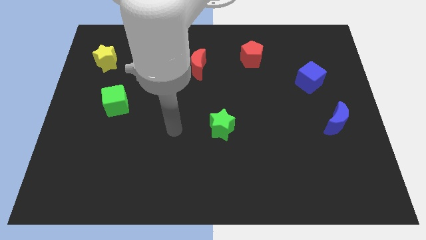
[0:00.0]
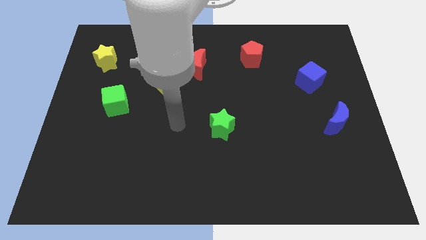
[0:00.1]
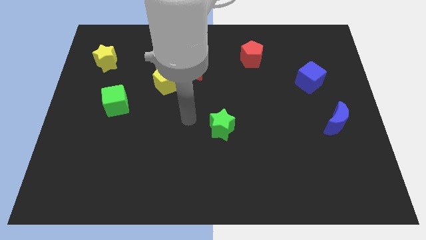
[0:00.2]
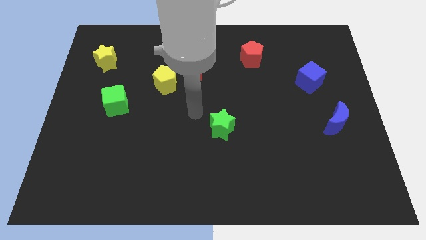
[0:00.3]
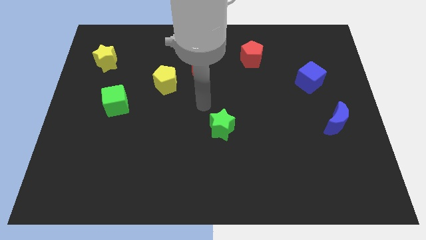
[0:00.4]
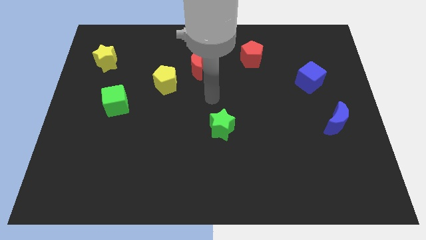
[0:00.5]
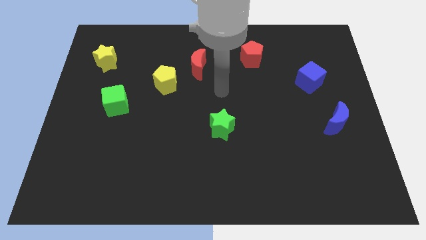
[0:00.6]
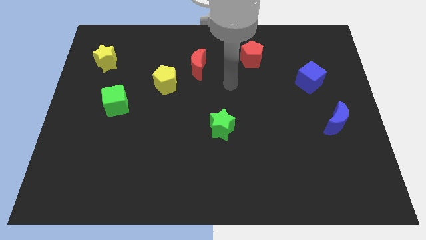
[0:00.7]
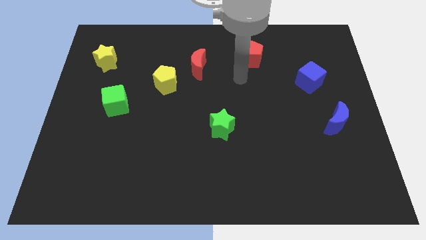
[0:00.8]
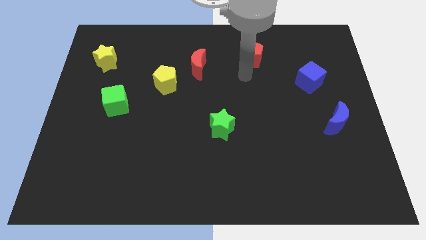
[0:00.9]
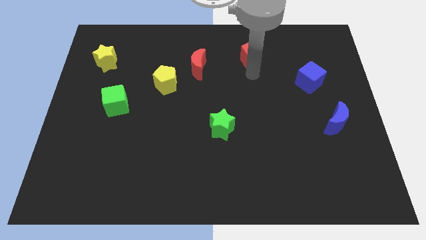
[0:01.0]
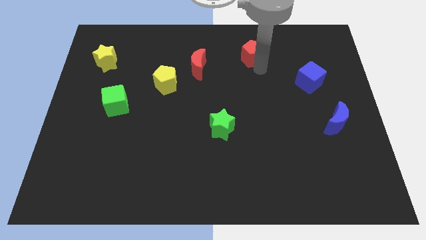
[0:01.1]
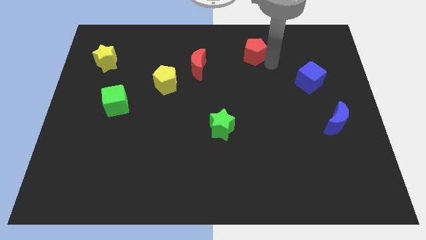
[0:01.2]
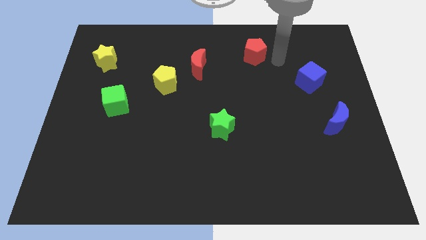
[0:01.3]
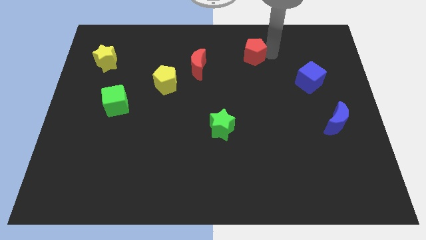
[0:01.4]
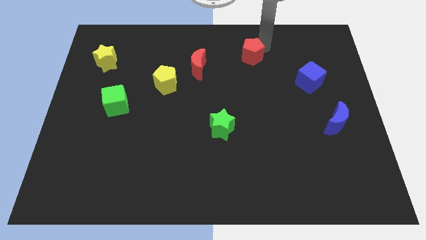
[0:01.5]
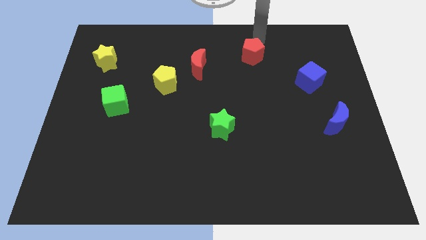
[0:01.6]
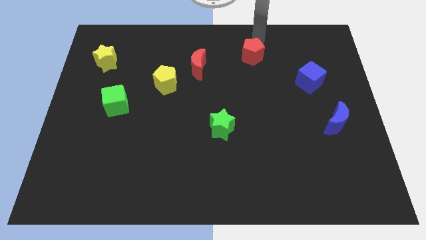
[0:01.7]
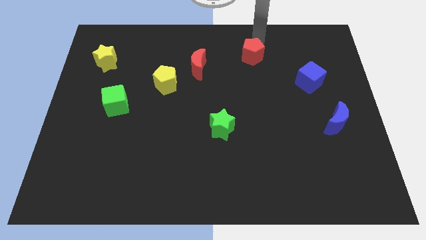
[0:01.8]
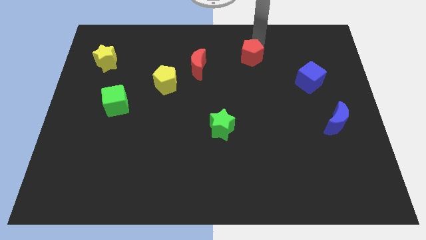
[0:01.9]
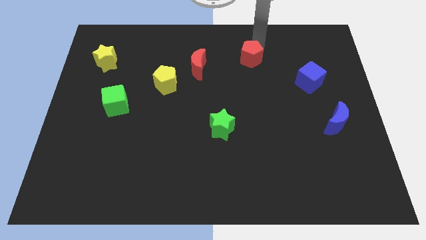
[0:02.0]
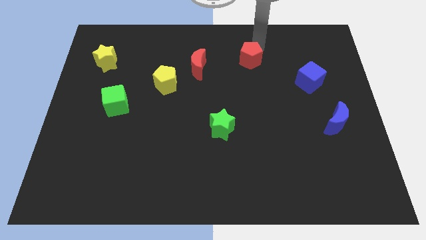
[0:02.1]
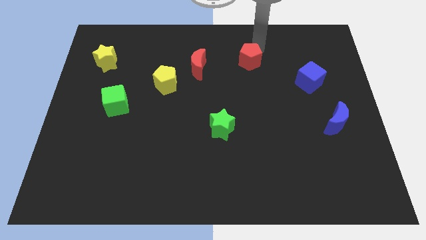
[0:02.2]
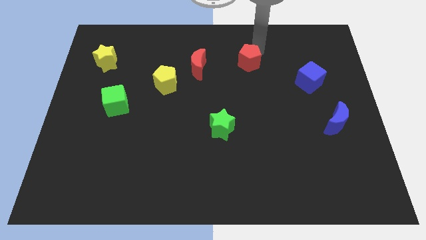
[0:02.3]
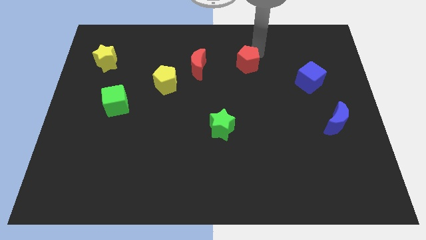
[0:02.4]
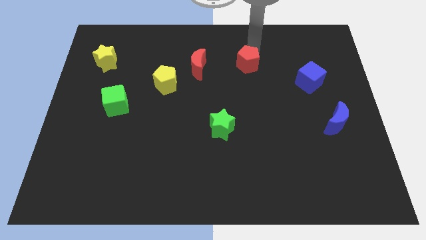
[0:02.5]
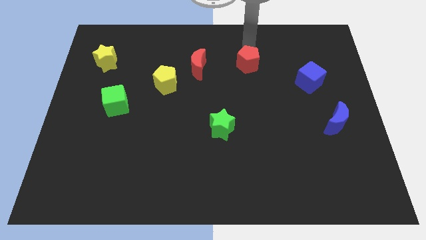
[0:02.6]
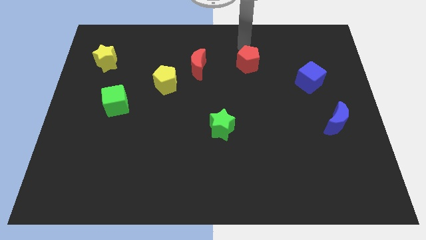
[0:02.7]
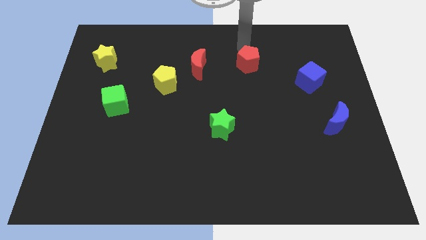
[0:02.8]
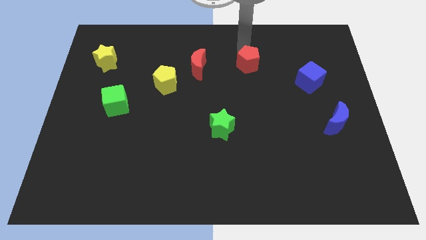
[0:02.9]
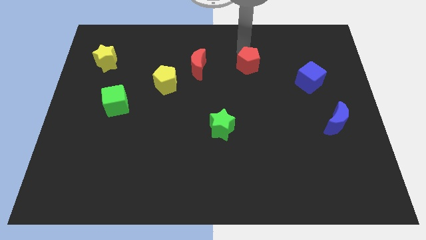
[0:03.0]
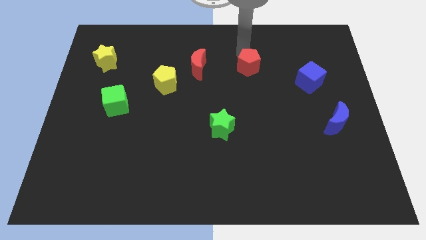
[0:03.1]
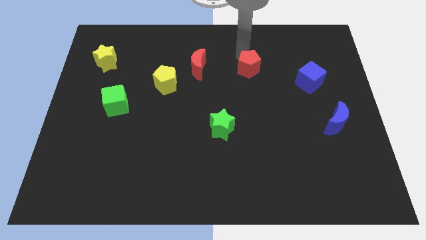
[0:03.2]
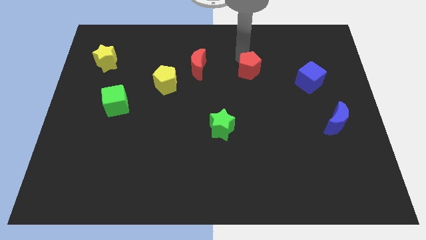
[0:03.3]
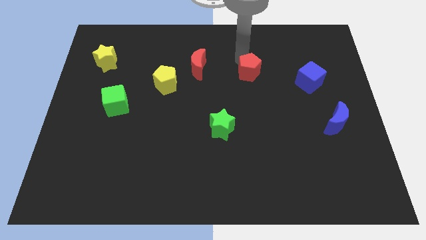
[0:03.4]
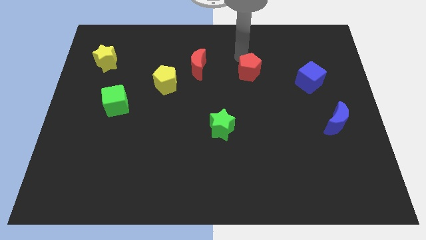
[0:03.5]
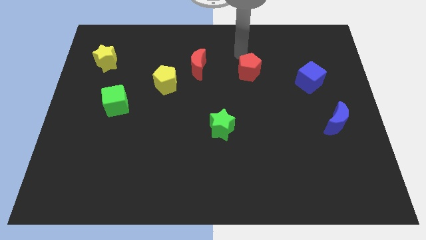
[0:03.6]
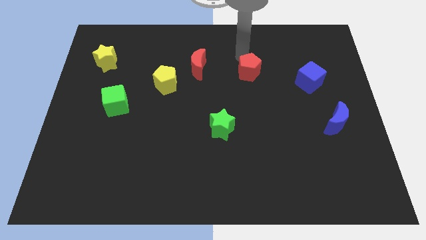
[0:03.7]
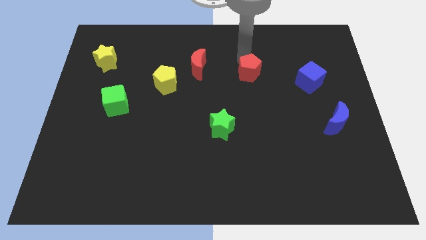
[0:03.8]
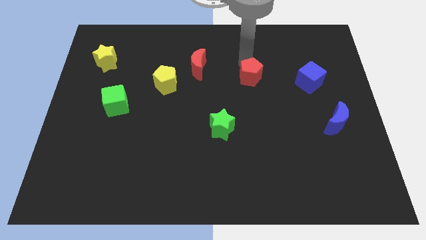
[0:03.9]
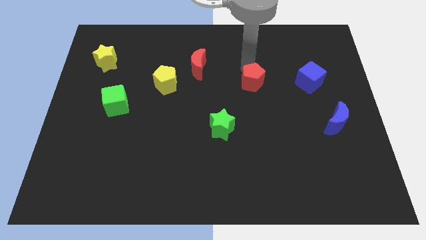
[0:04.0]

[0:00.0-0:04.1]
move the red pentagon down a little bit

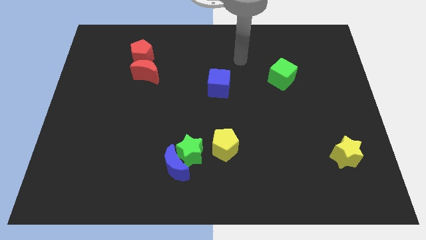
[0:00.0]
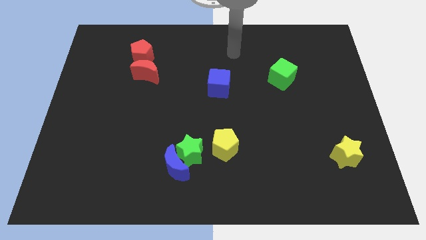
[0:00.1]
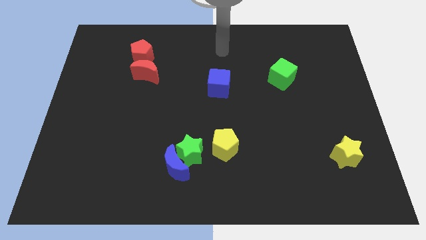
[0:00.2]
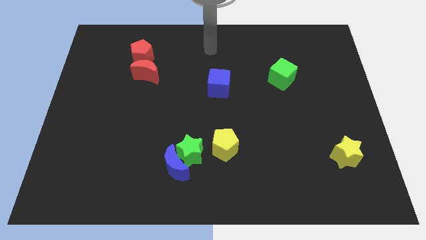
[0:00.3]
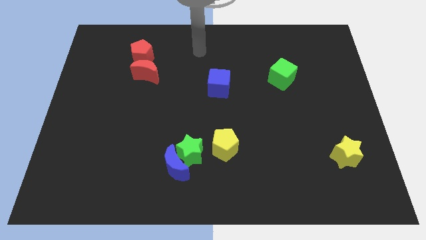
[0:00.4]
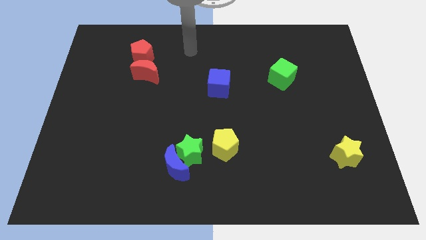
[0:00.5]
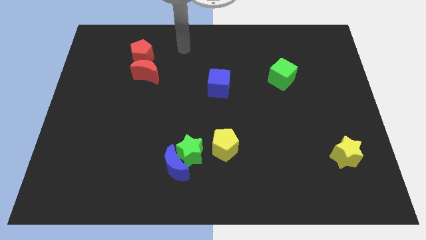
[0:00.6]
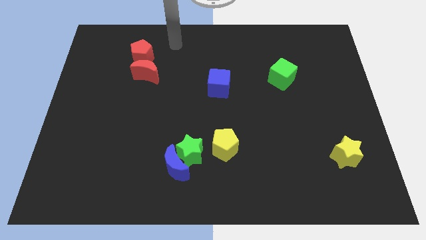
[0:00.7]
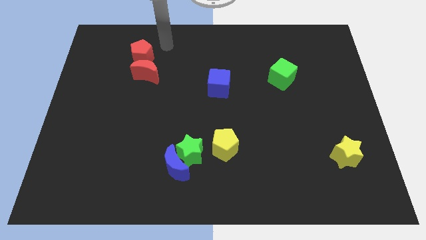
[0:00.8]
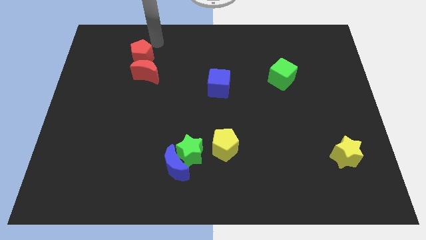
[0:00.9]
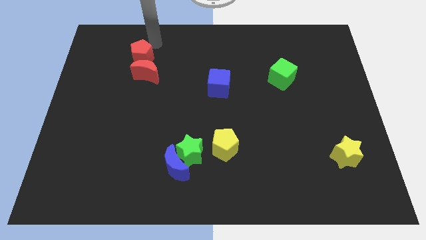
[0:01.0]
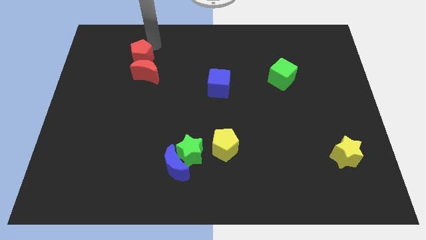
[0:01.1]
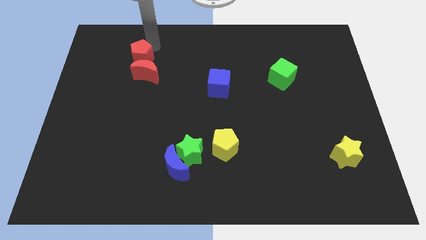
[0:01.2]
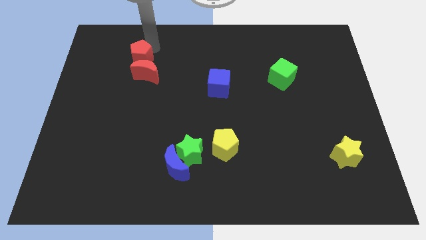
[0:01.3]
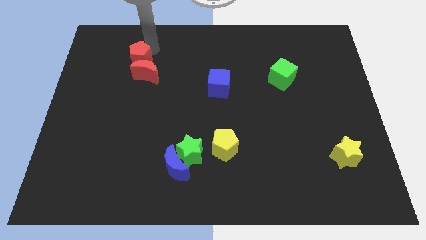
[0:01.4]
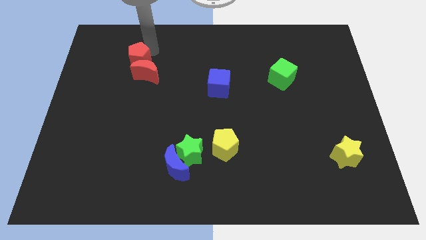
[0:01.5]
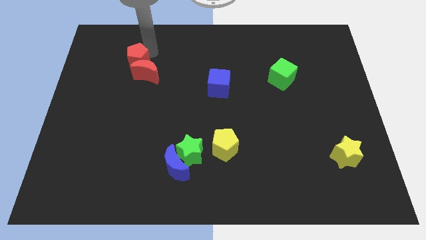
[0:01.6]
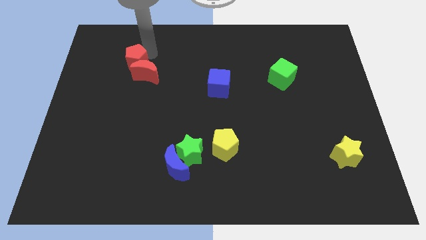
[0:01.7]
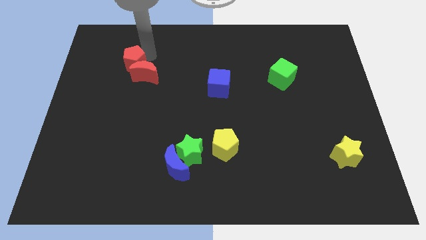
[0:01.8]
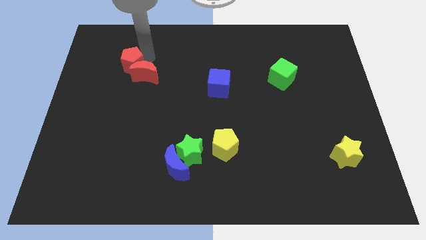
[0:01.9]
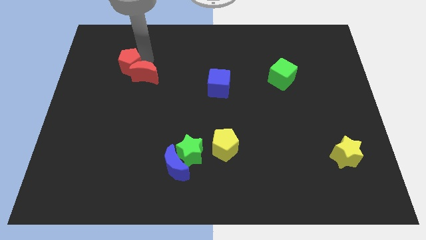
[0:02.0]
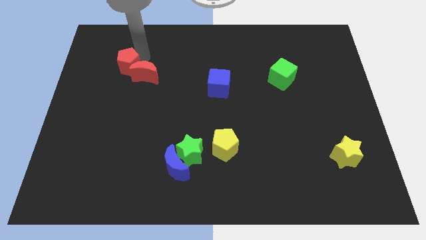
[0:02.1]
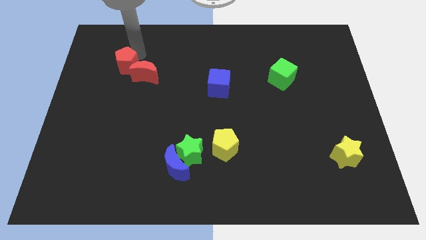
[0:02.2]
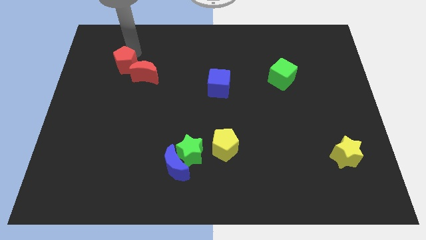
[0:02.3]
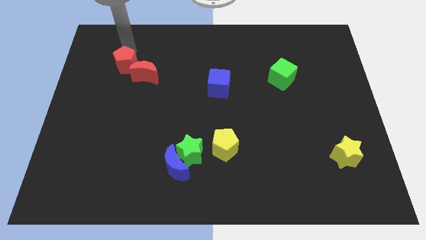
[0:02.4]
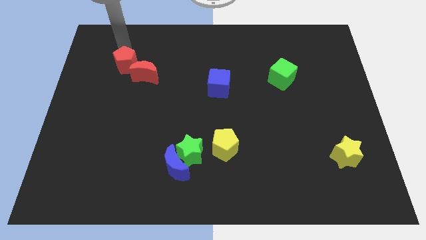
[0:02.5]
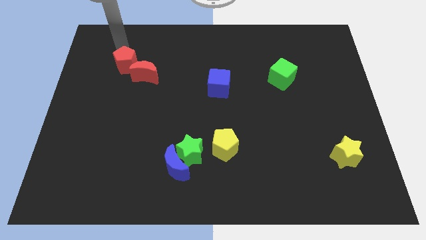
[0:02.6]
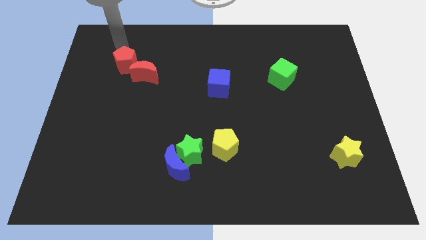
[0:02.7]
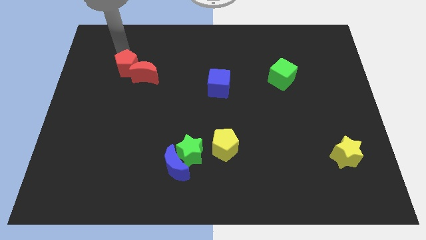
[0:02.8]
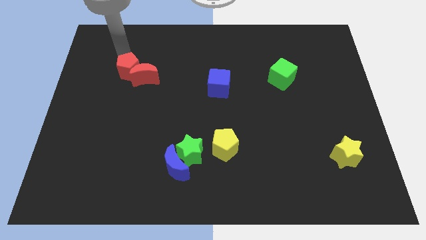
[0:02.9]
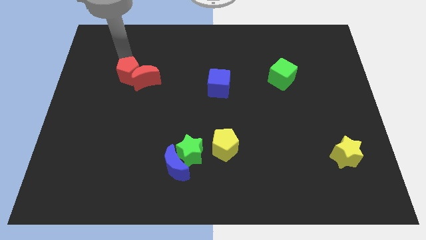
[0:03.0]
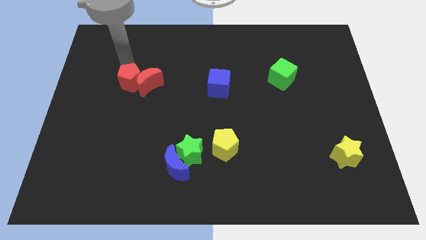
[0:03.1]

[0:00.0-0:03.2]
slightly slide the red pentagon down

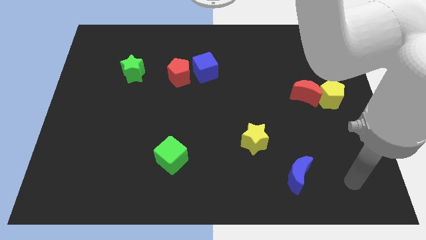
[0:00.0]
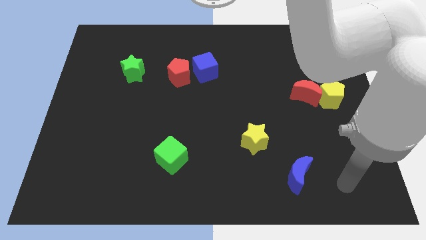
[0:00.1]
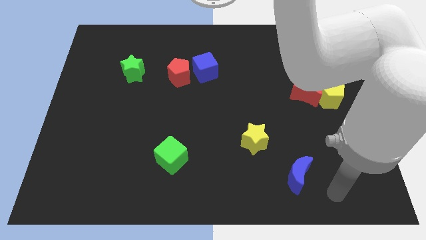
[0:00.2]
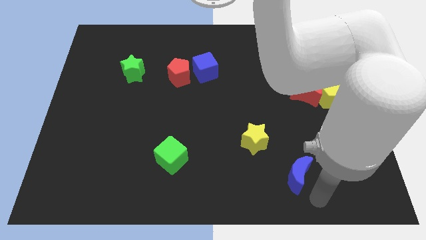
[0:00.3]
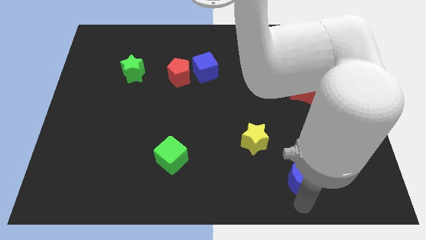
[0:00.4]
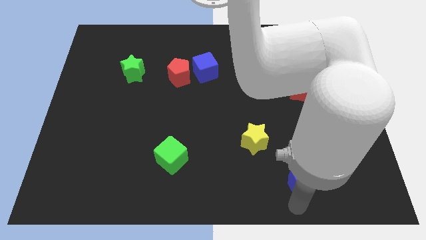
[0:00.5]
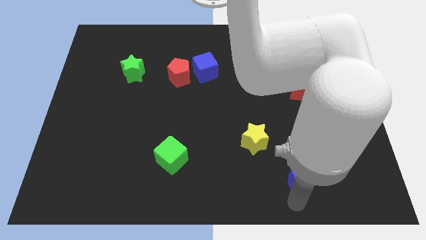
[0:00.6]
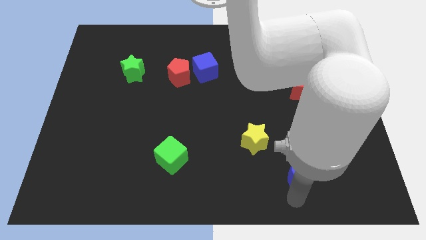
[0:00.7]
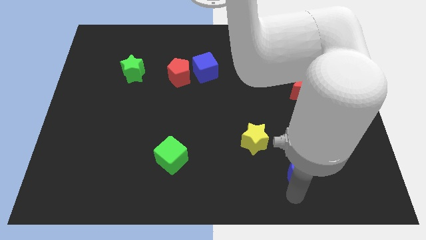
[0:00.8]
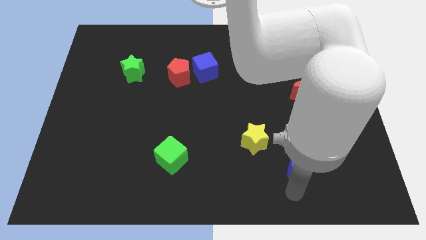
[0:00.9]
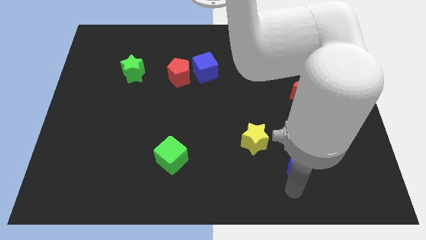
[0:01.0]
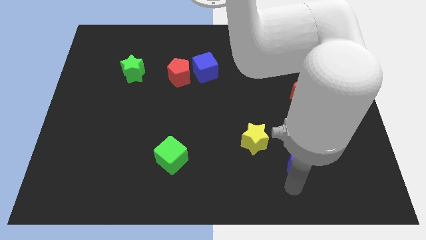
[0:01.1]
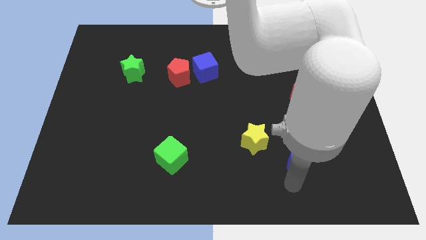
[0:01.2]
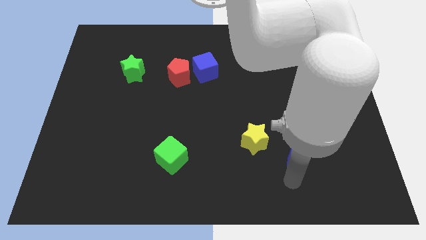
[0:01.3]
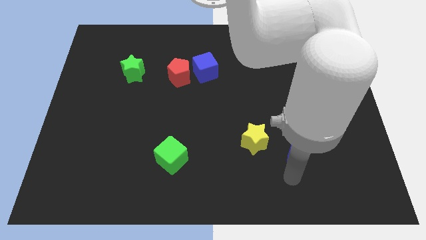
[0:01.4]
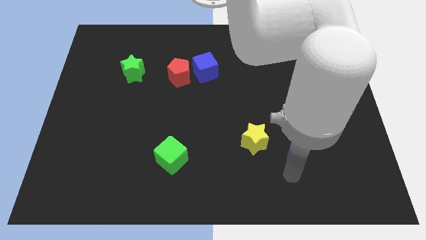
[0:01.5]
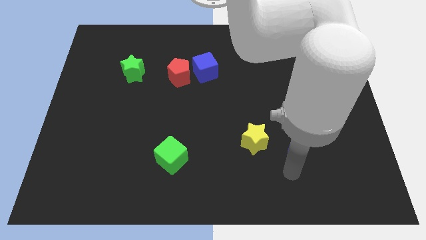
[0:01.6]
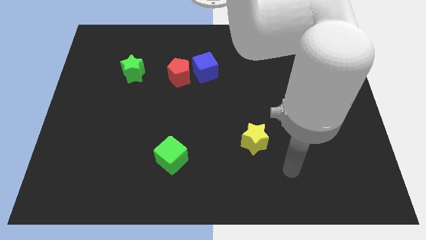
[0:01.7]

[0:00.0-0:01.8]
move the blue moon upwards a little
